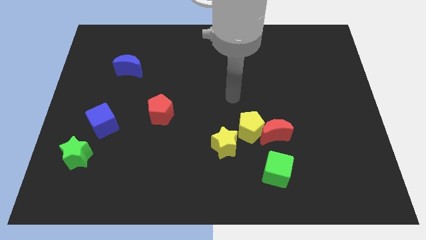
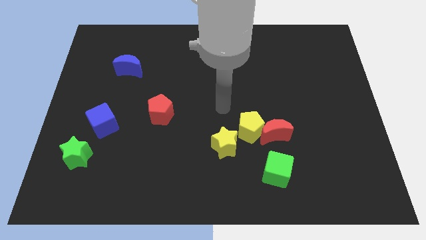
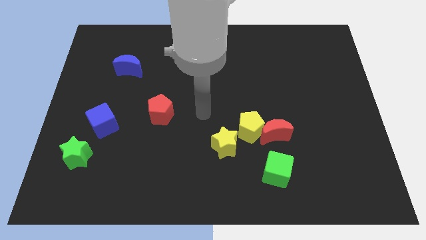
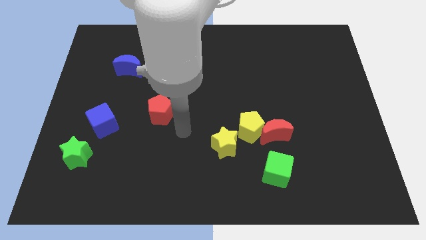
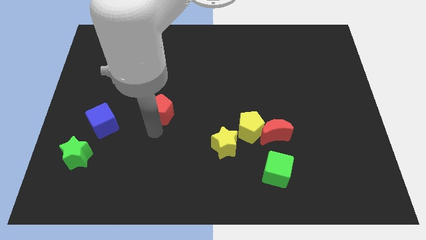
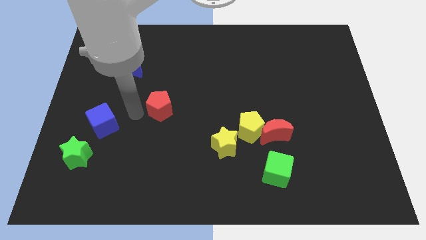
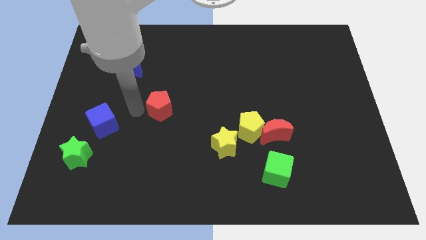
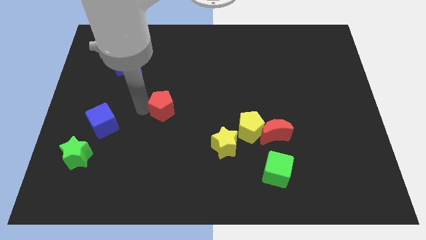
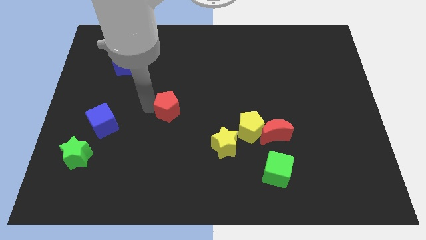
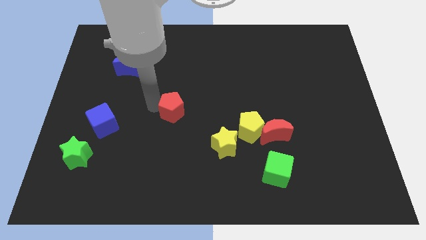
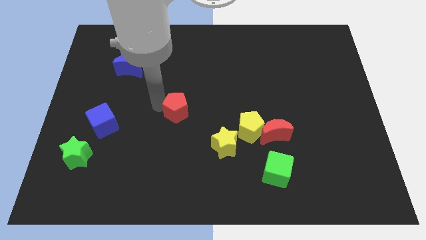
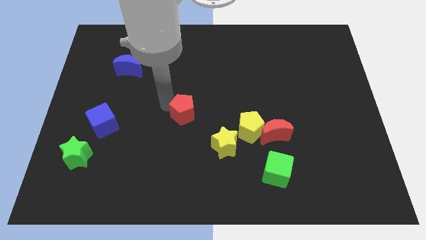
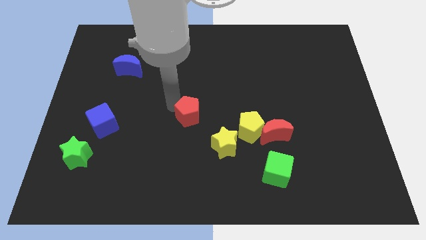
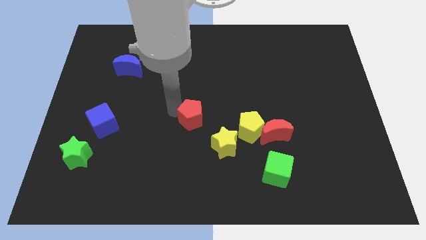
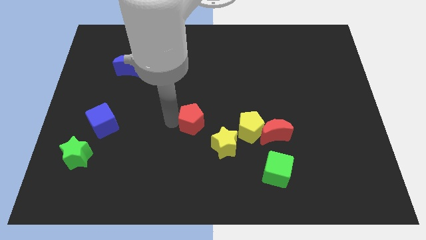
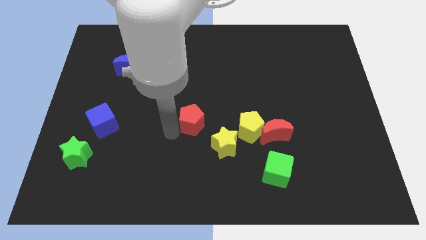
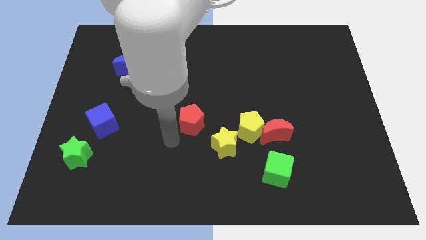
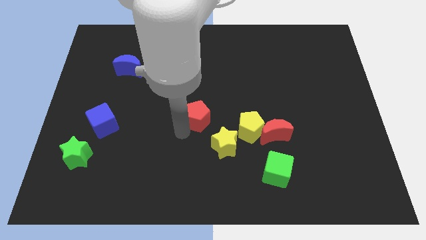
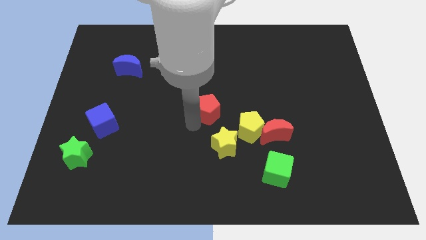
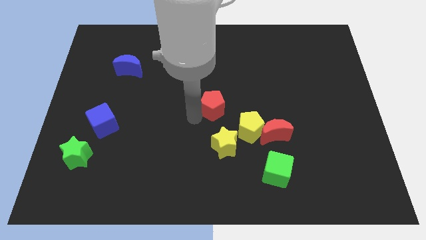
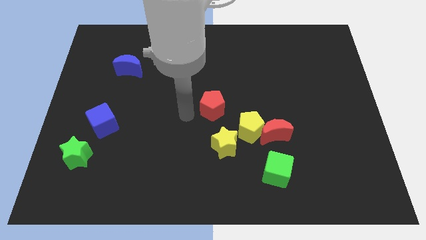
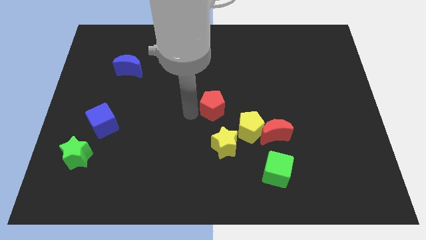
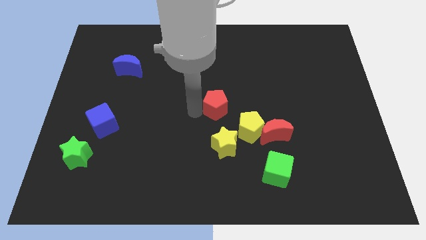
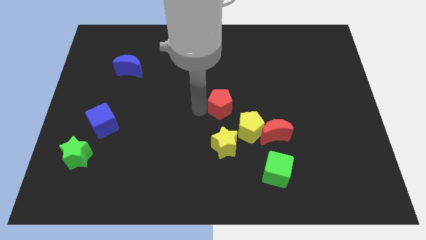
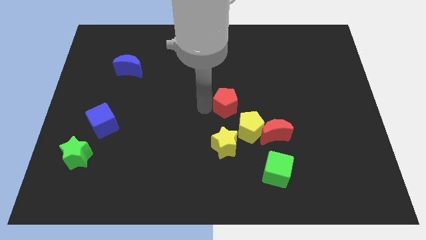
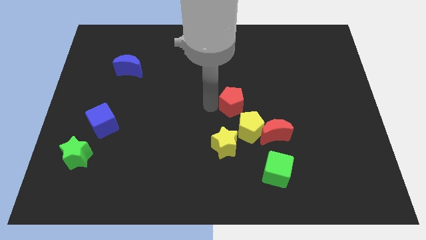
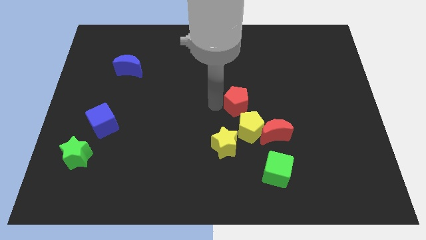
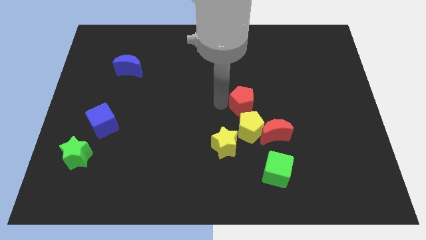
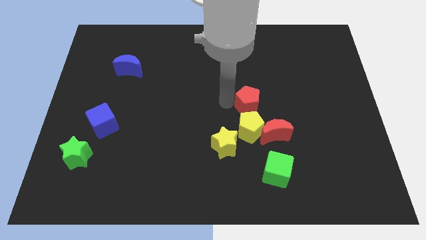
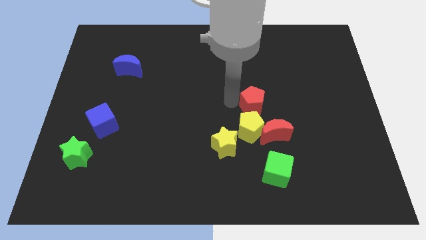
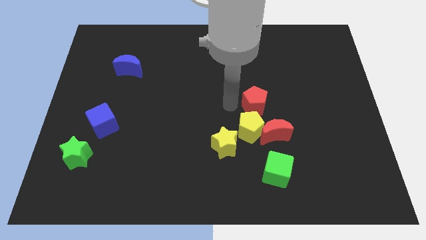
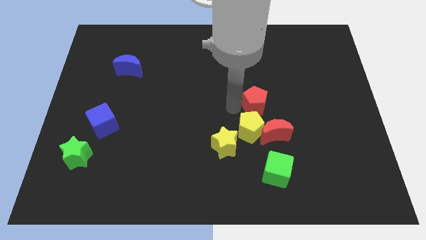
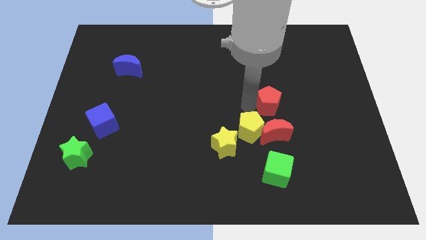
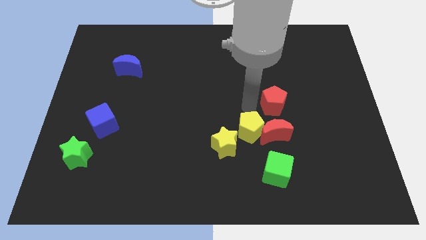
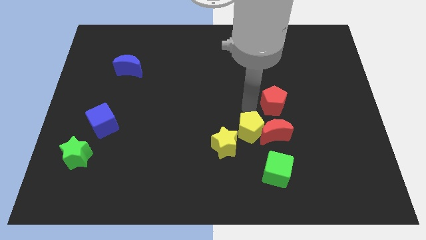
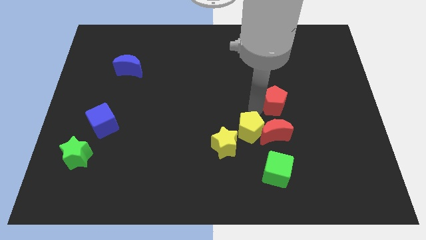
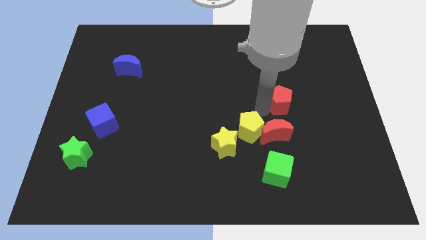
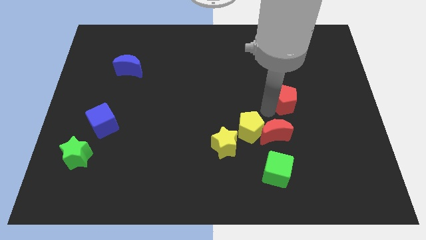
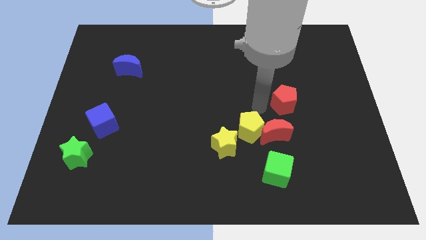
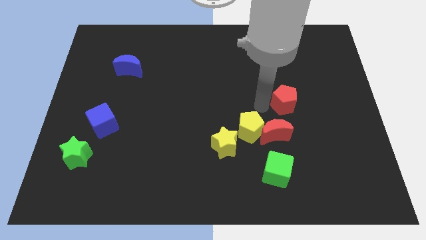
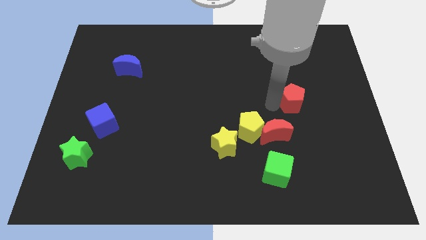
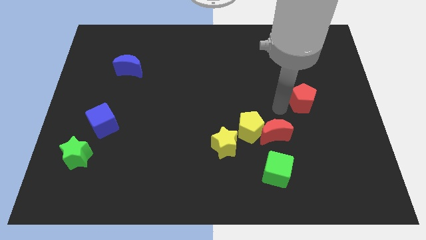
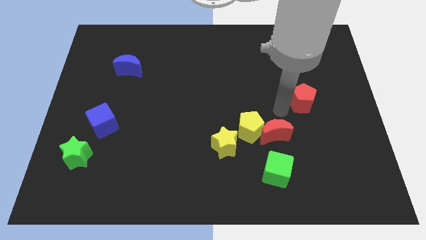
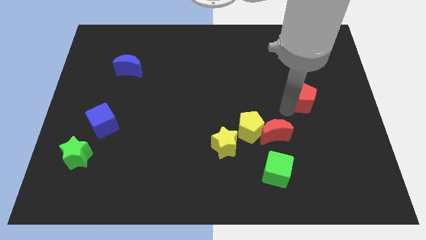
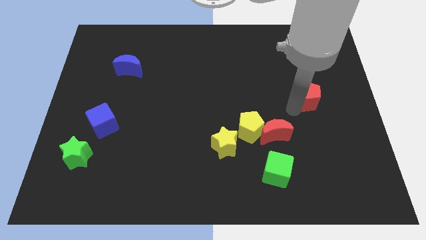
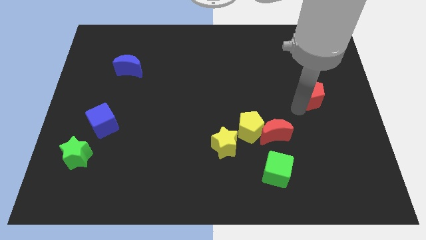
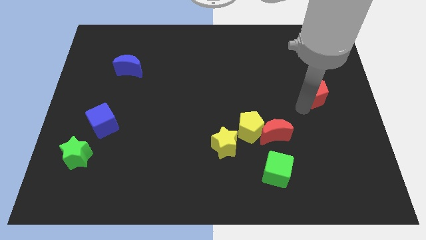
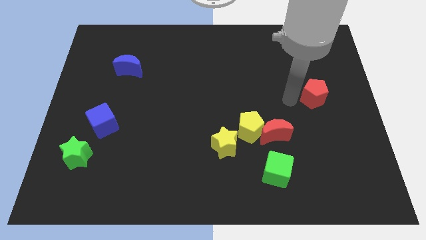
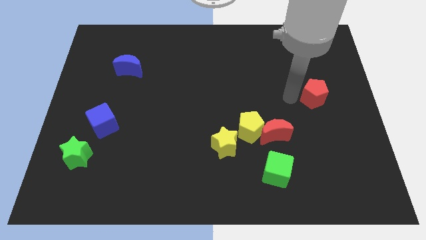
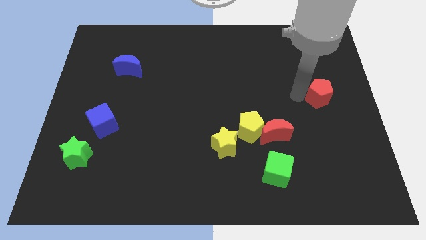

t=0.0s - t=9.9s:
push the red pentagon to the right side of the board

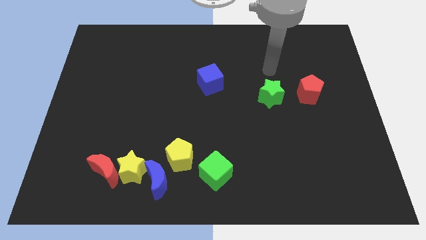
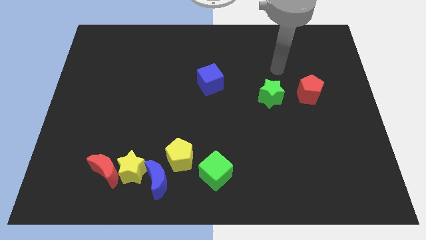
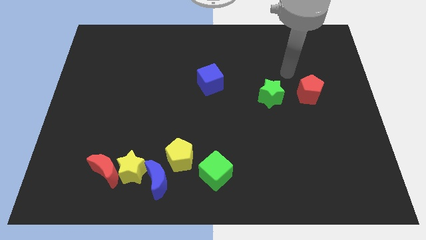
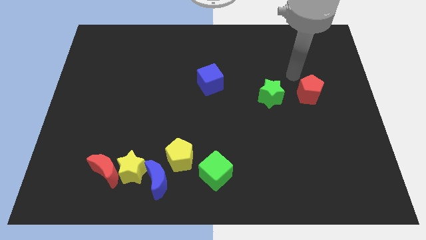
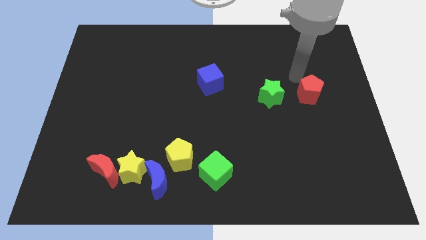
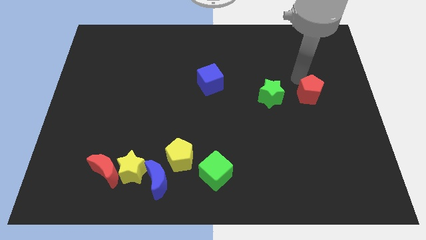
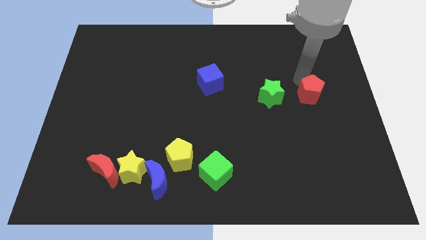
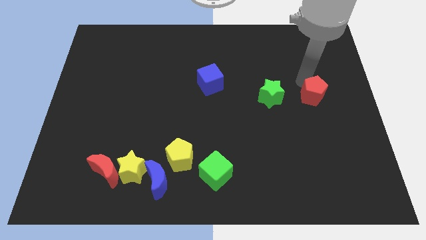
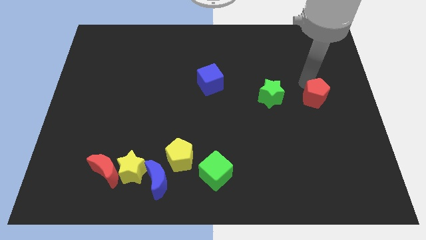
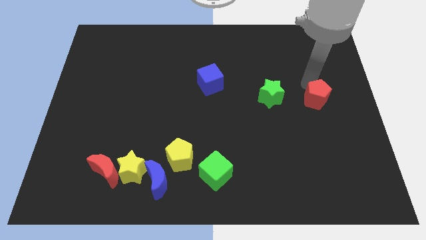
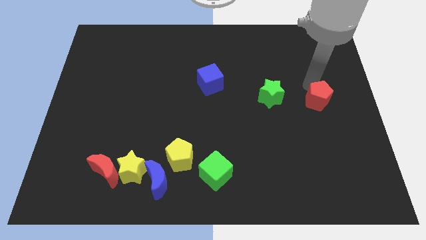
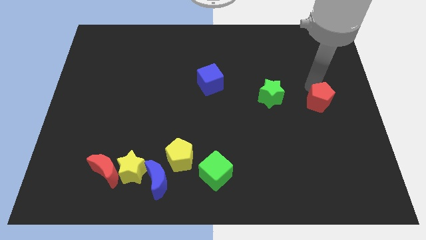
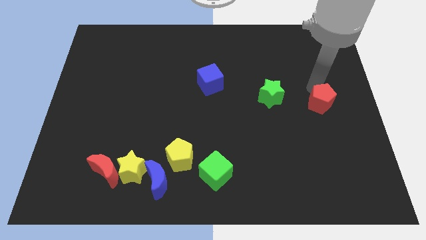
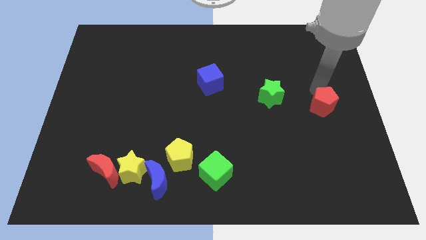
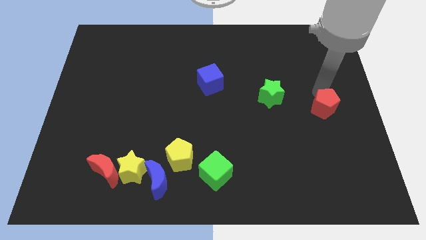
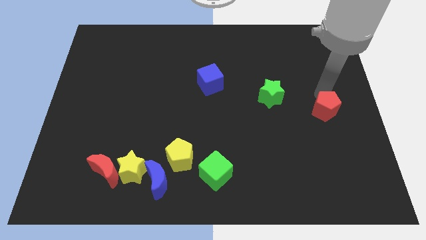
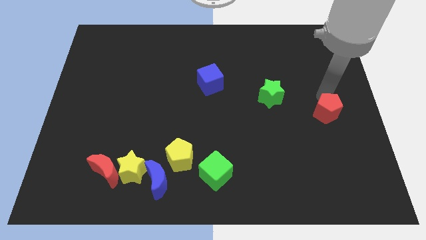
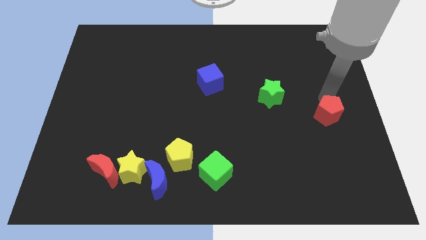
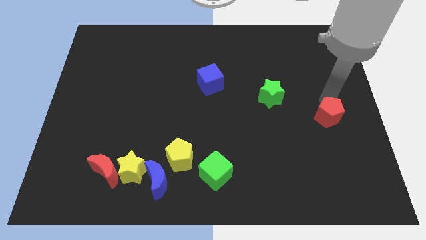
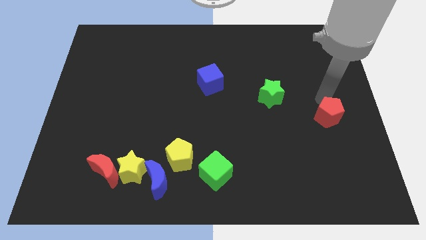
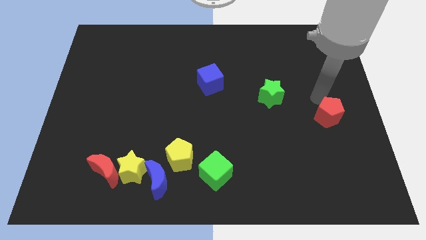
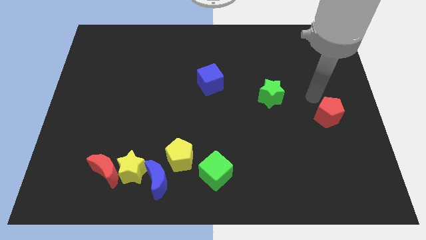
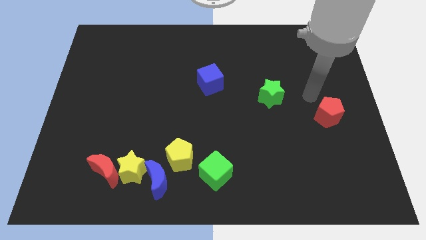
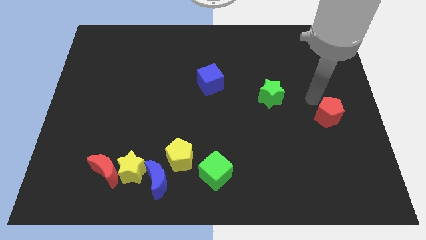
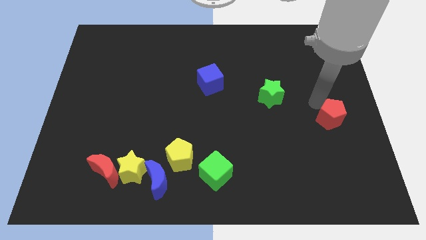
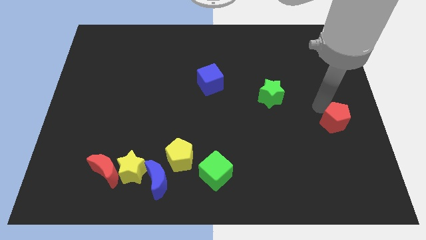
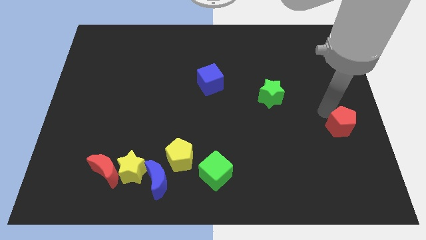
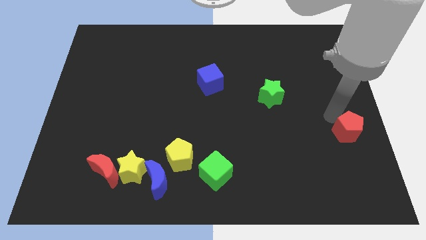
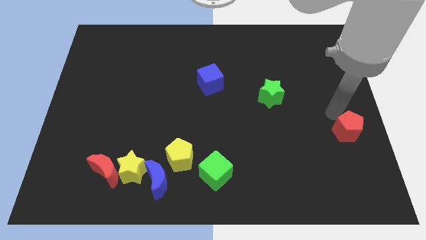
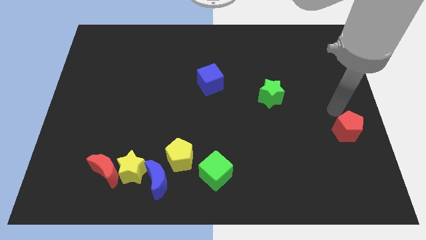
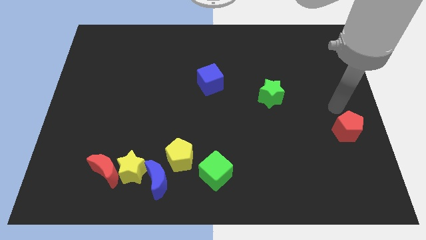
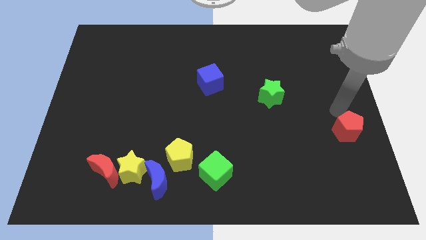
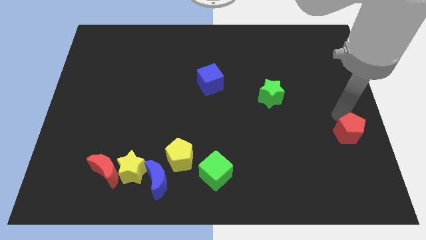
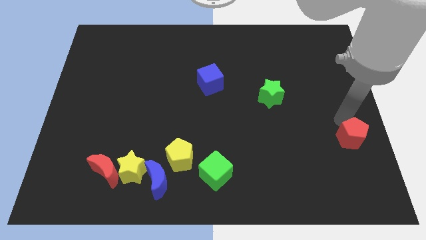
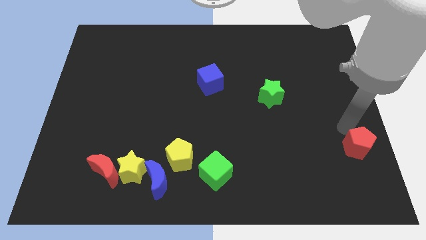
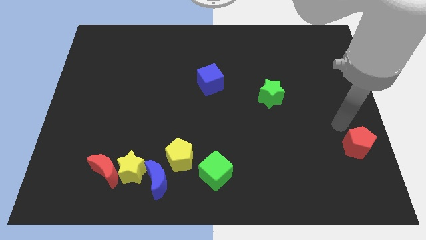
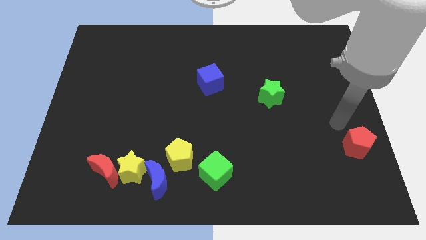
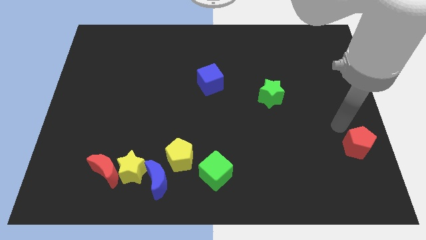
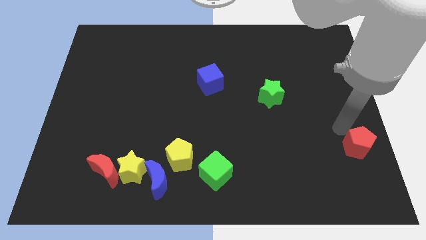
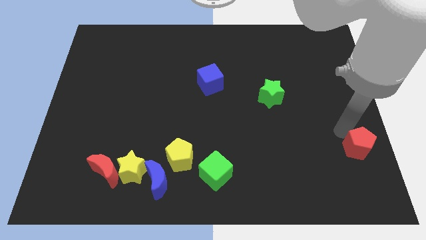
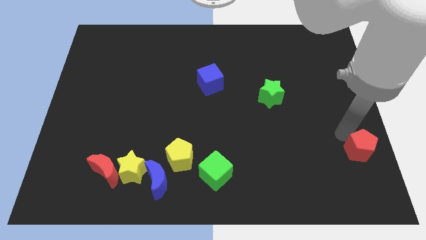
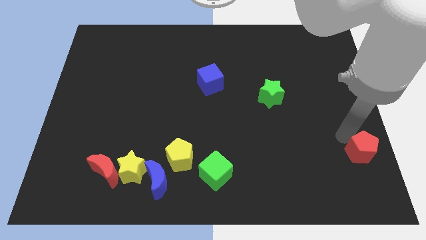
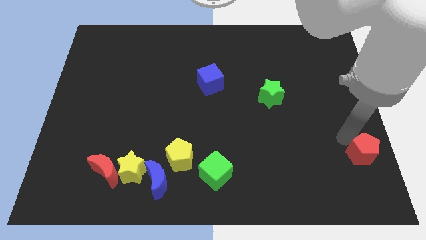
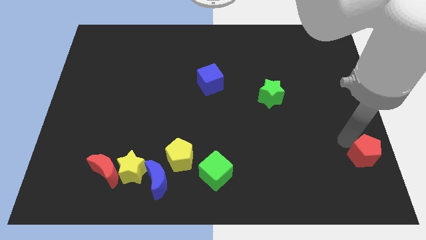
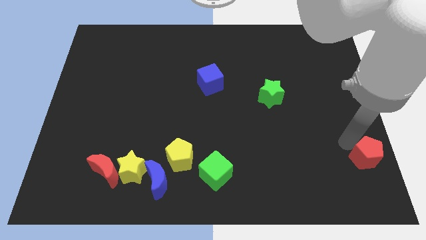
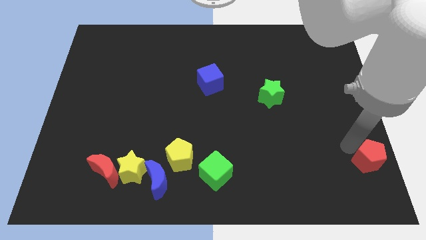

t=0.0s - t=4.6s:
push the red pentagon to the bottom right corner
